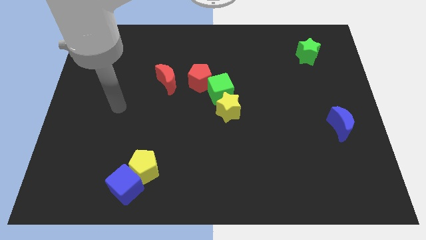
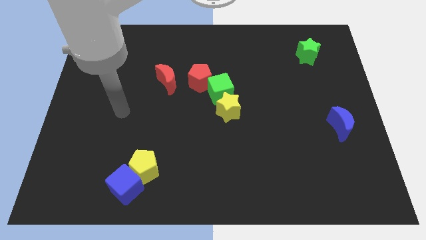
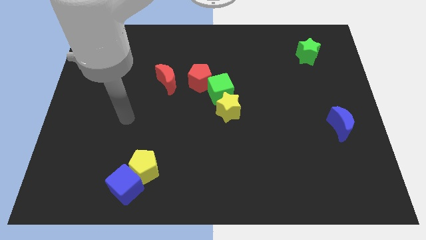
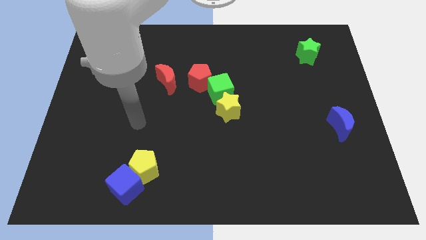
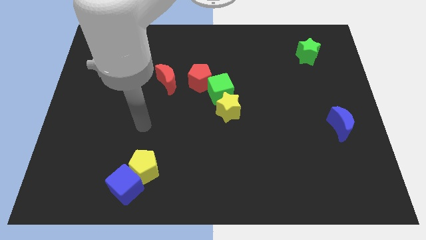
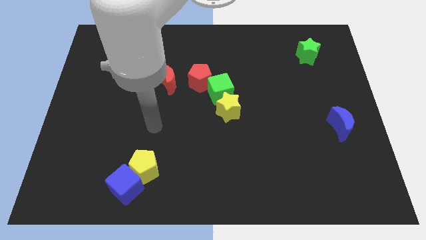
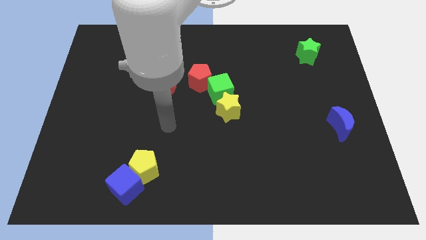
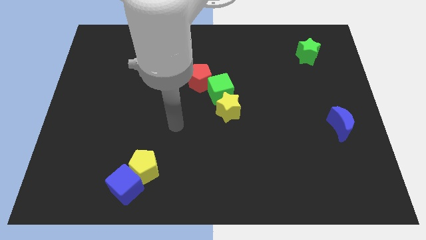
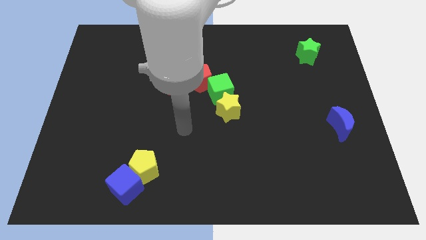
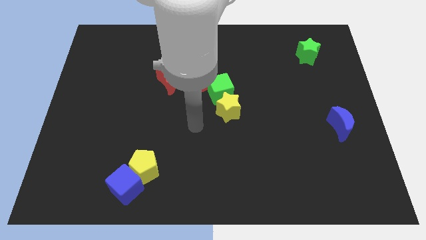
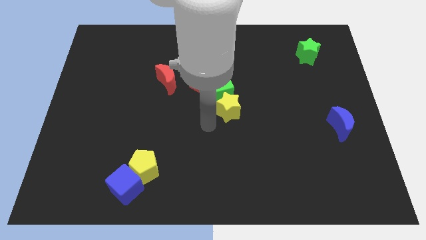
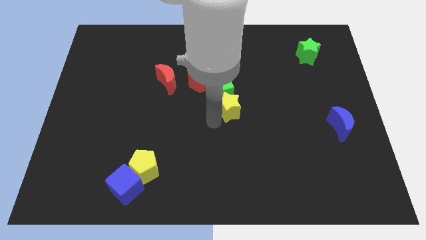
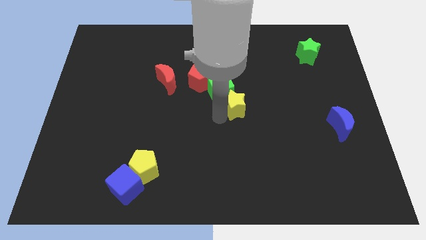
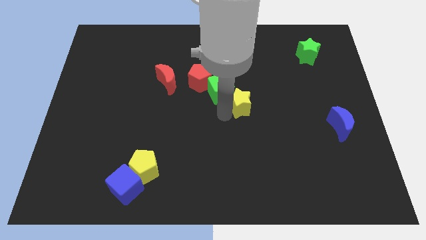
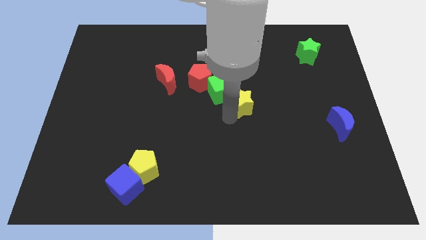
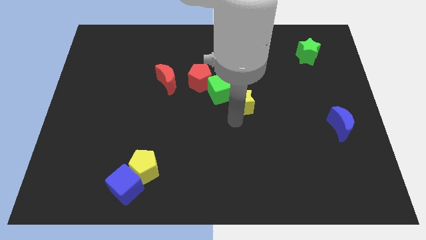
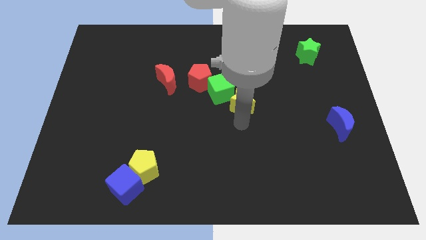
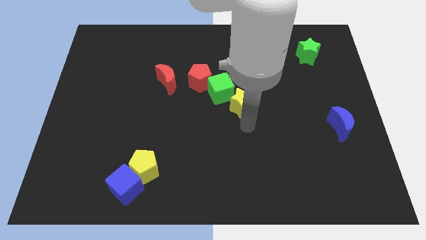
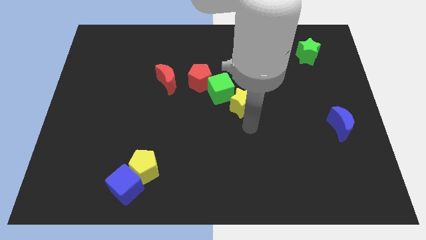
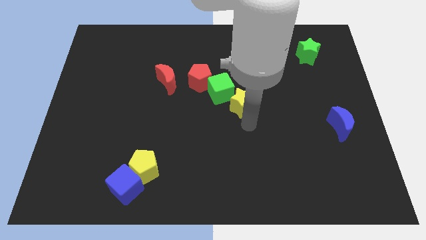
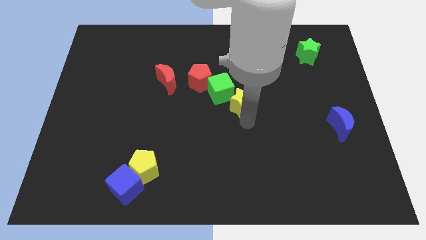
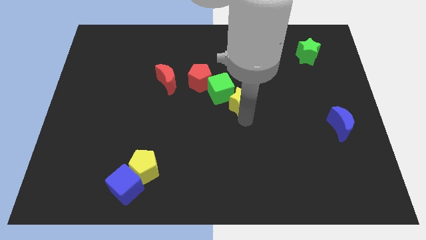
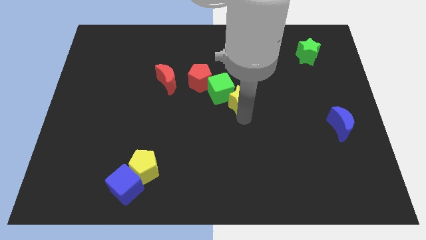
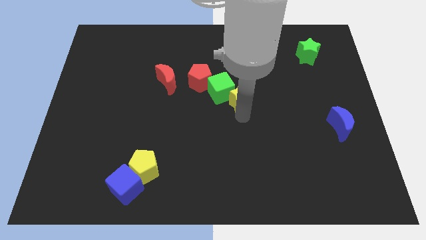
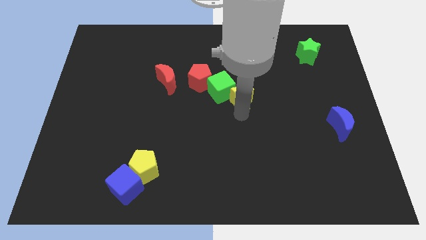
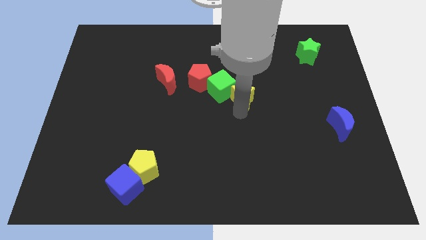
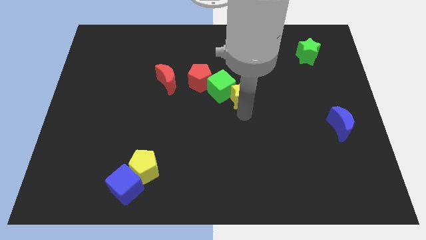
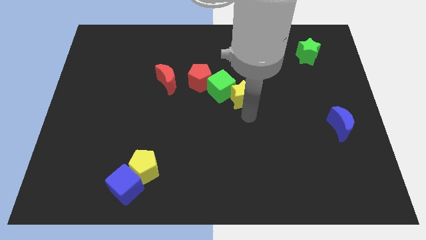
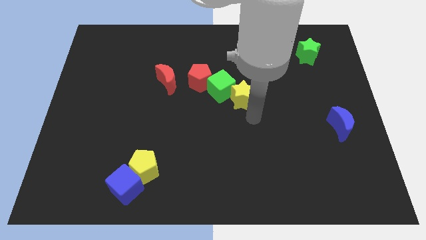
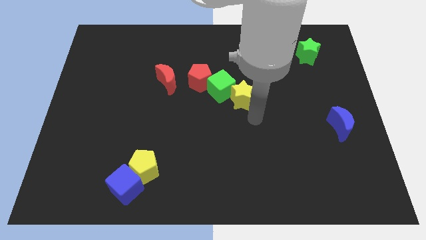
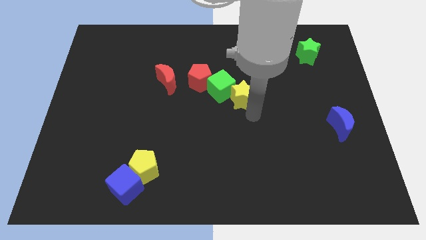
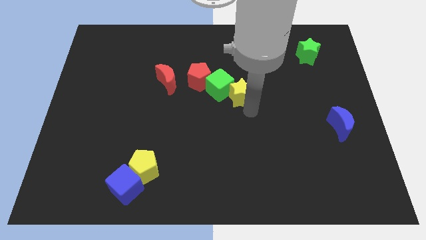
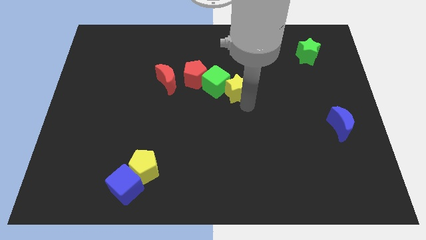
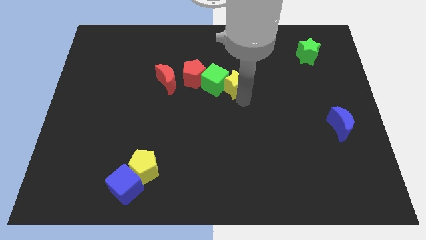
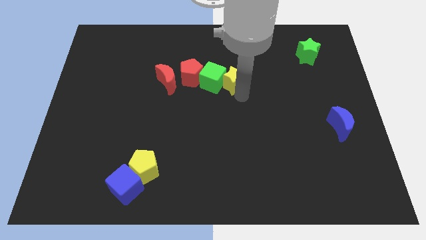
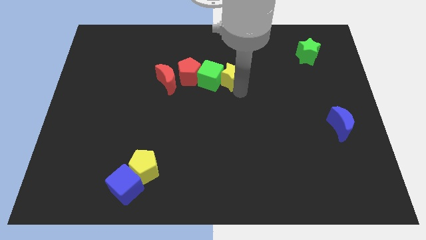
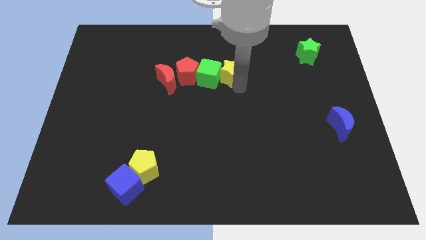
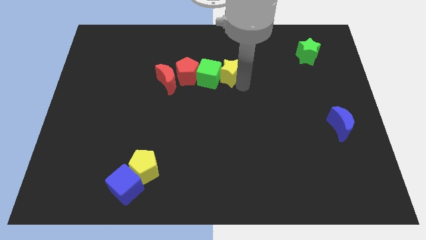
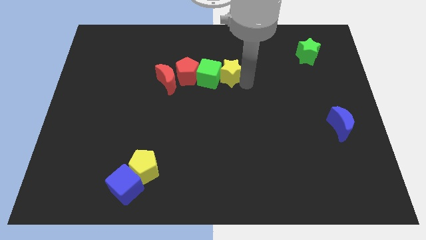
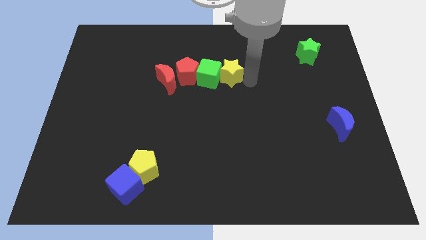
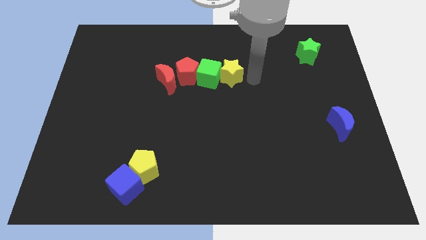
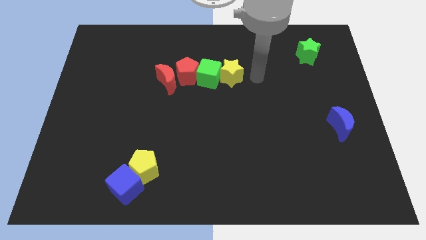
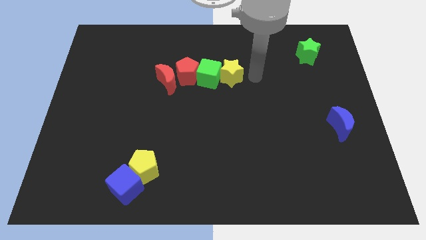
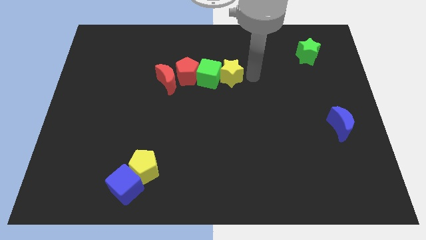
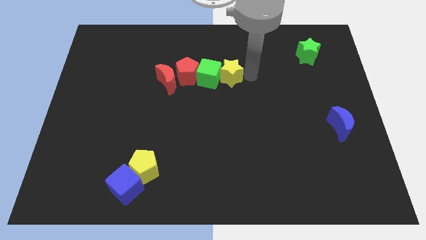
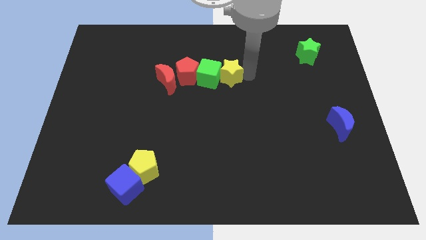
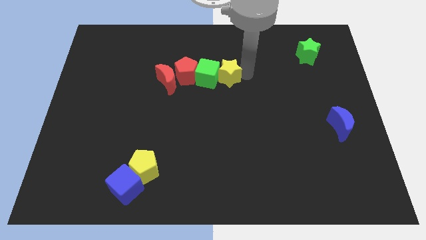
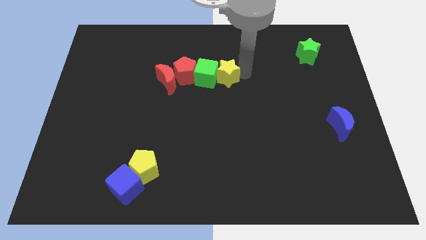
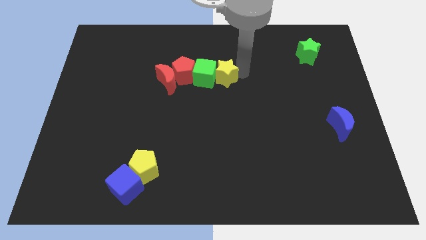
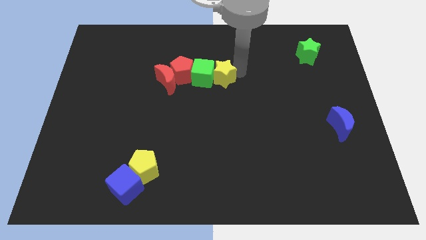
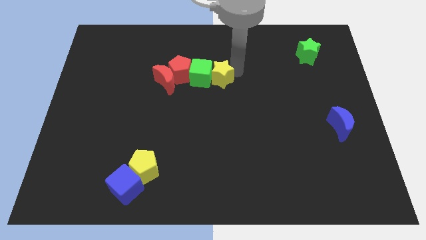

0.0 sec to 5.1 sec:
slightly move the yellow star diagonally upwards and left

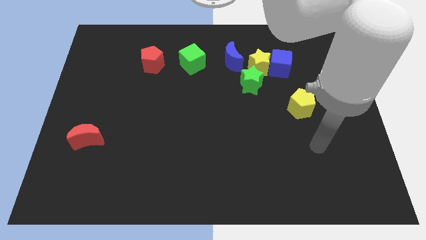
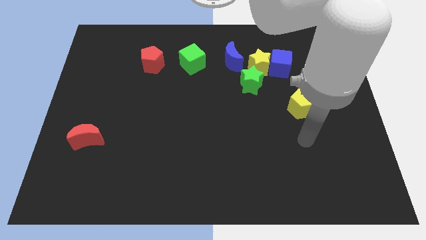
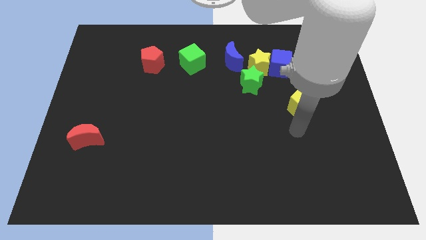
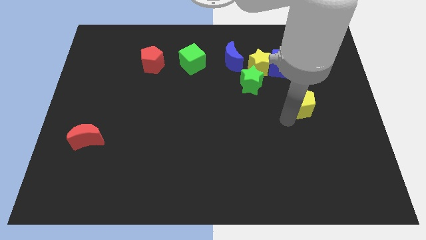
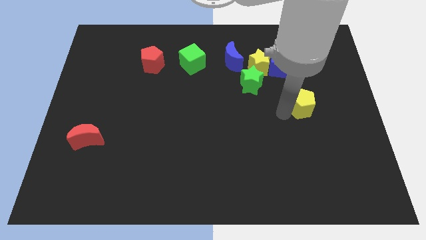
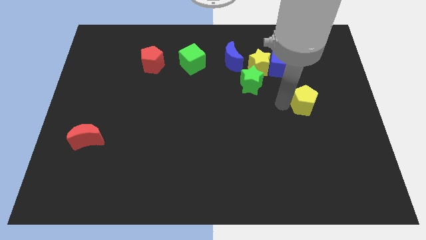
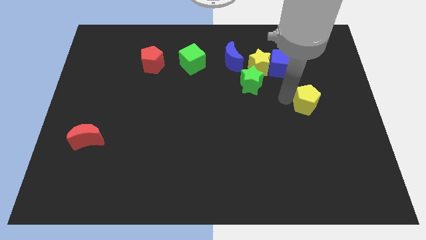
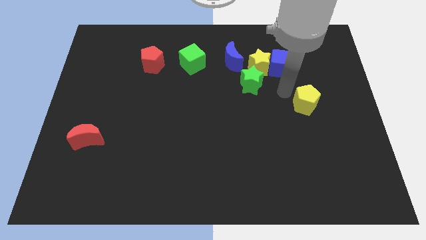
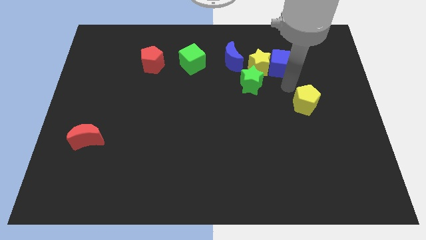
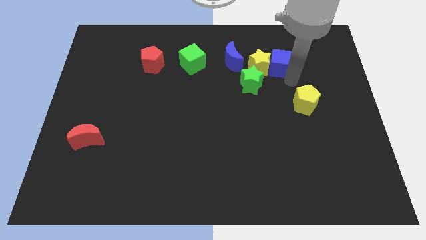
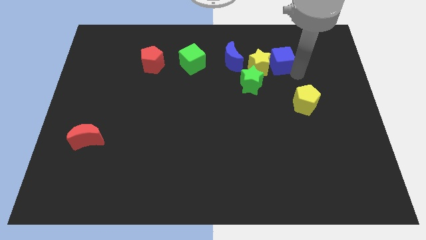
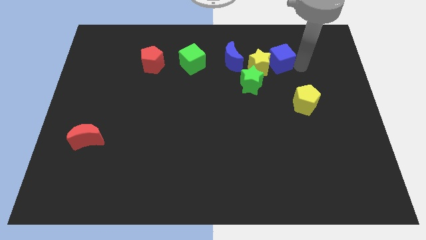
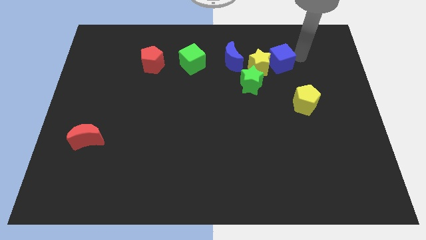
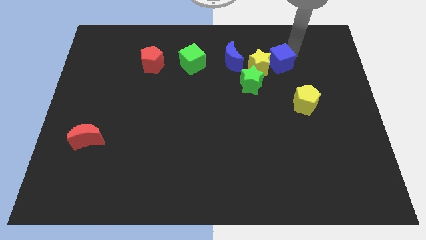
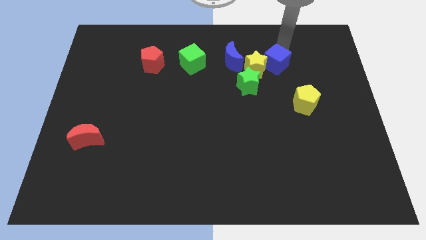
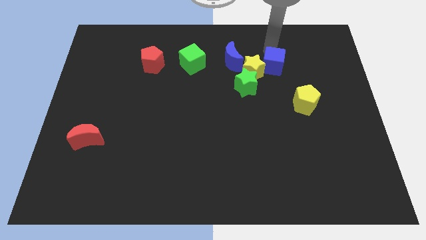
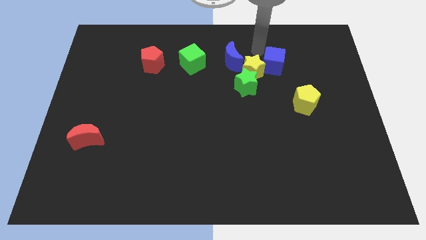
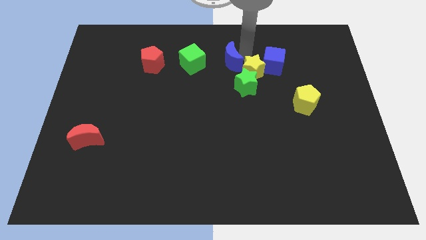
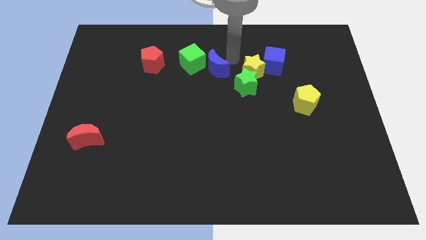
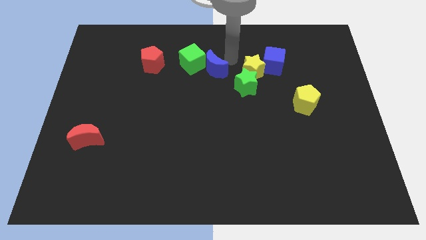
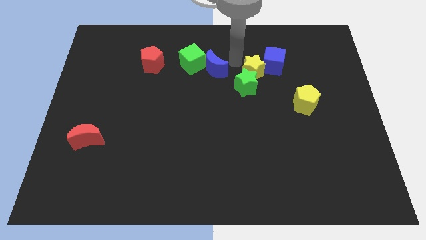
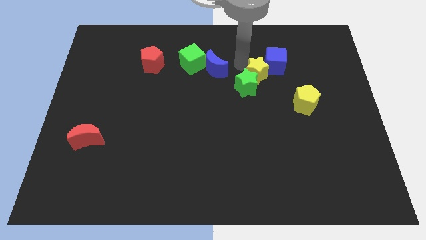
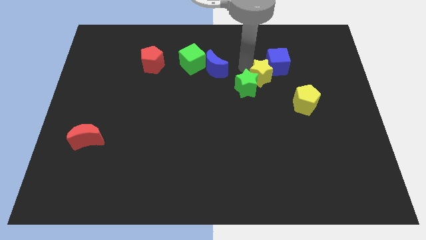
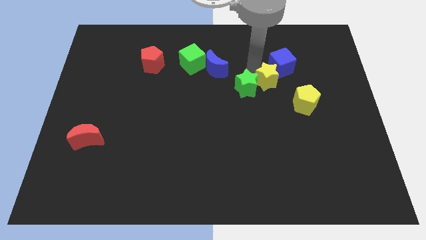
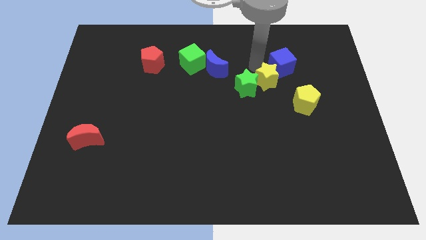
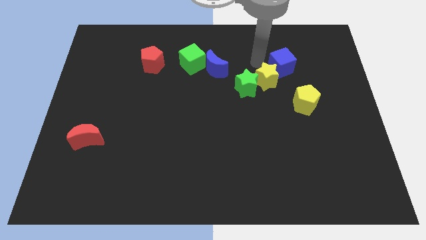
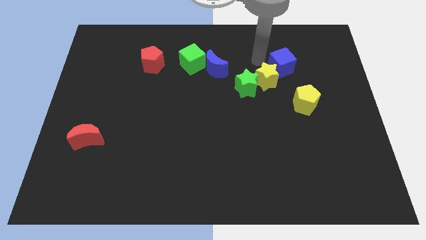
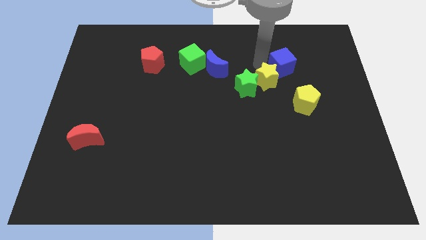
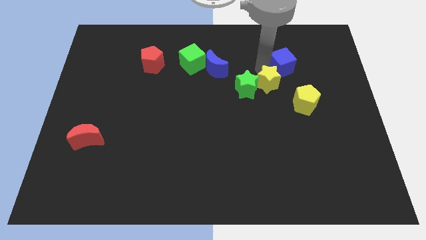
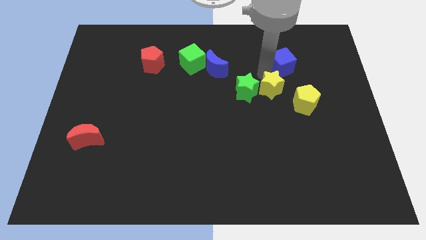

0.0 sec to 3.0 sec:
slide the yellow star downwards a bit
